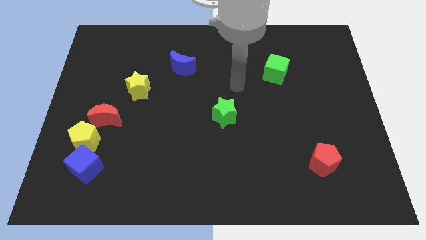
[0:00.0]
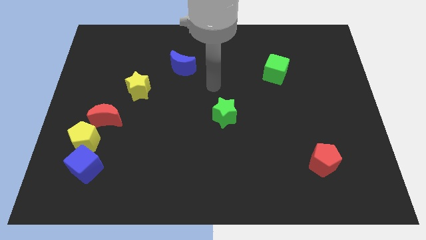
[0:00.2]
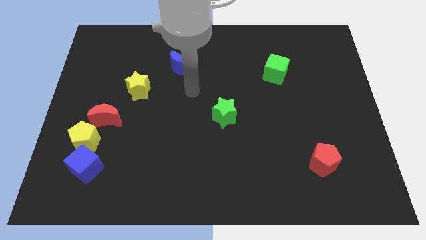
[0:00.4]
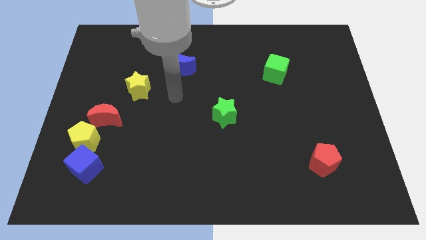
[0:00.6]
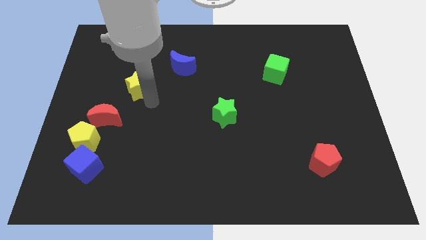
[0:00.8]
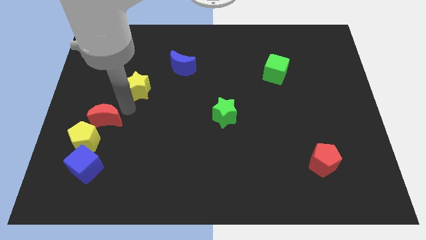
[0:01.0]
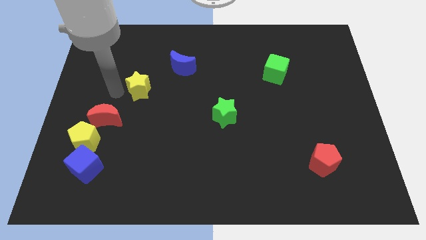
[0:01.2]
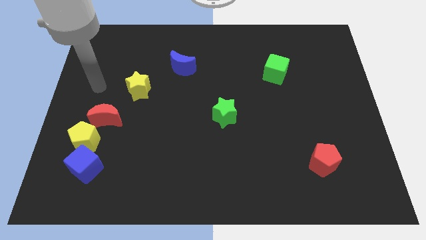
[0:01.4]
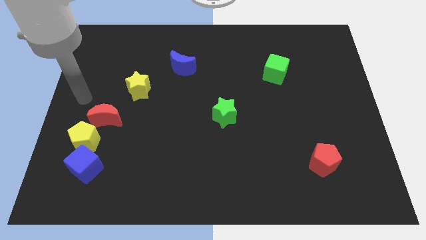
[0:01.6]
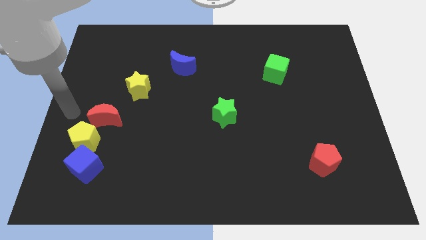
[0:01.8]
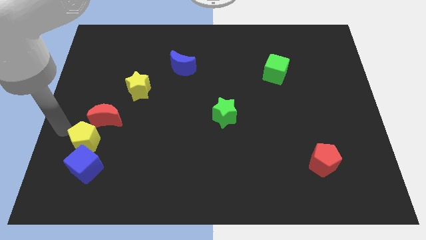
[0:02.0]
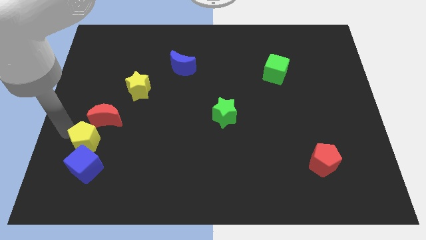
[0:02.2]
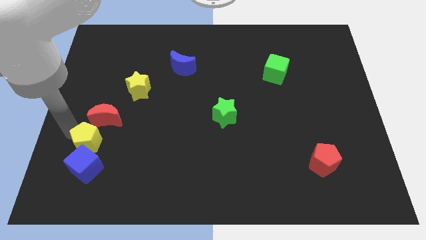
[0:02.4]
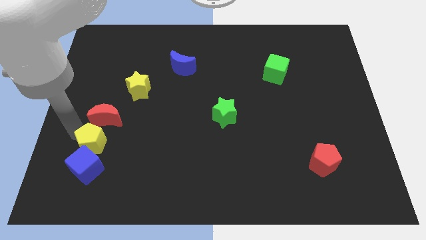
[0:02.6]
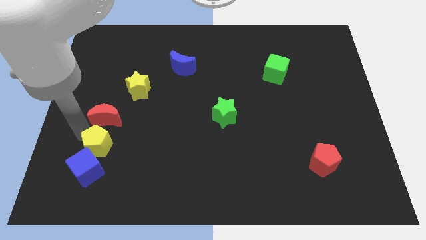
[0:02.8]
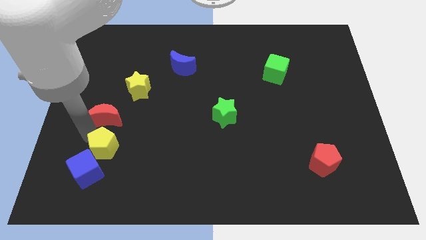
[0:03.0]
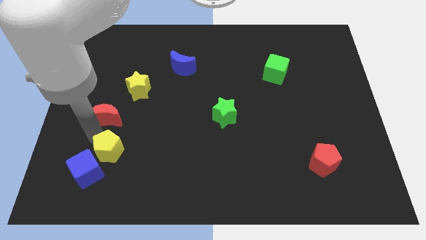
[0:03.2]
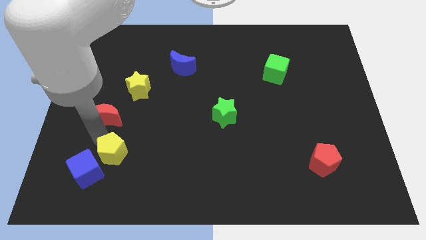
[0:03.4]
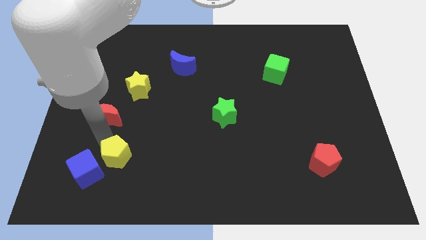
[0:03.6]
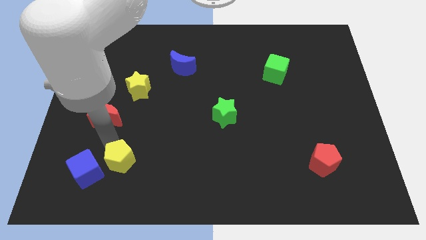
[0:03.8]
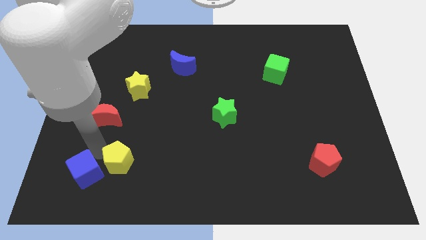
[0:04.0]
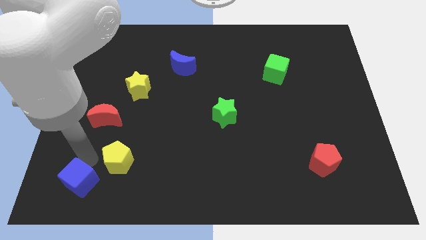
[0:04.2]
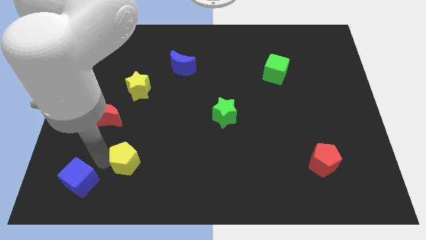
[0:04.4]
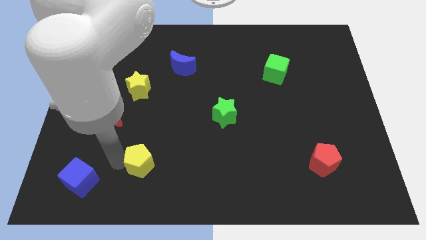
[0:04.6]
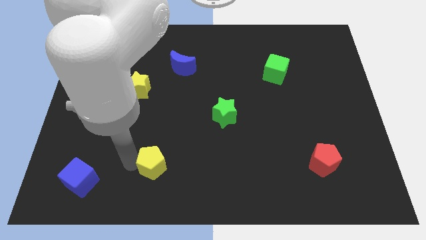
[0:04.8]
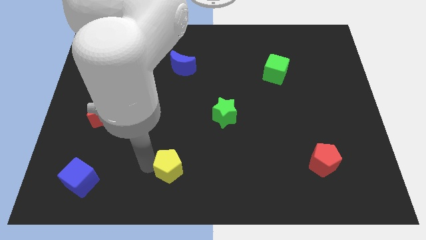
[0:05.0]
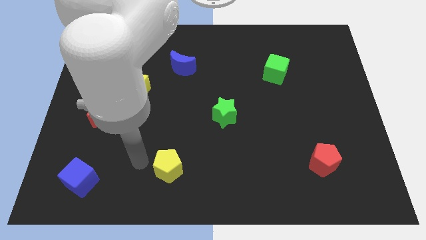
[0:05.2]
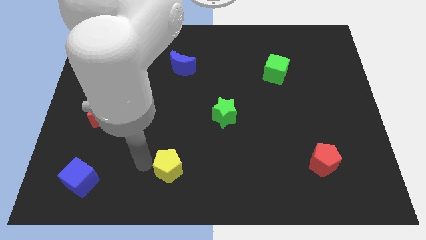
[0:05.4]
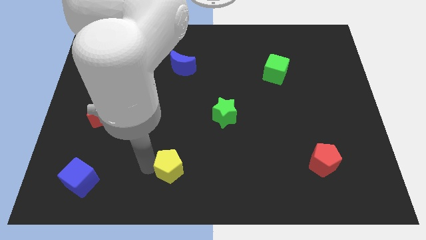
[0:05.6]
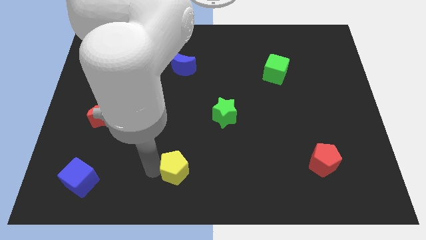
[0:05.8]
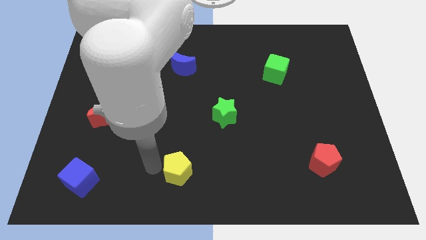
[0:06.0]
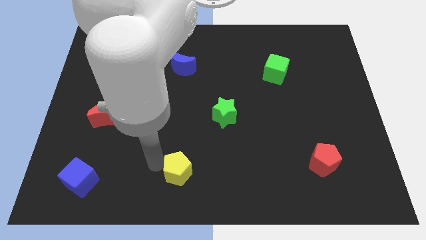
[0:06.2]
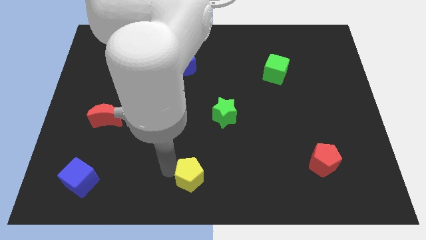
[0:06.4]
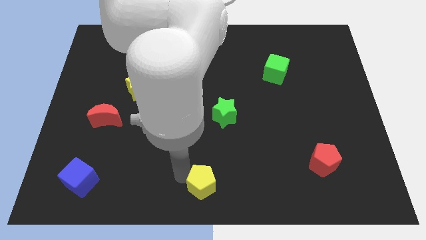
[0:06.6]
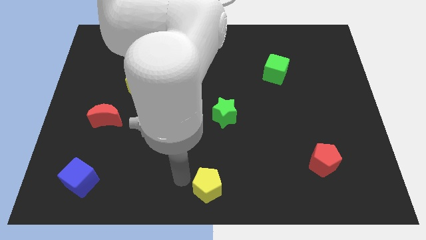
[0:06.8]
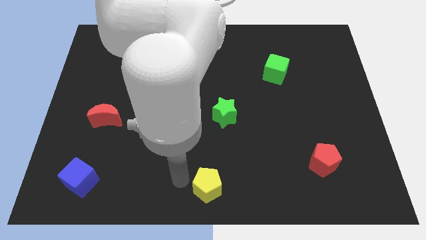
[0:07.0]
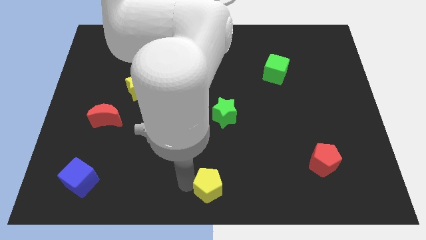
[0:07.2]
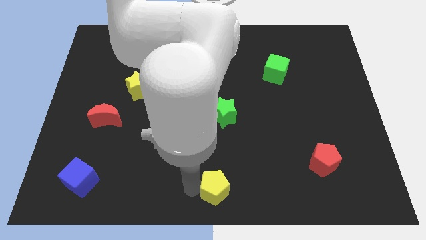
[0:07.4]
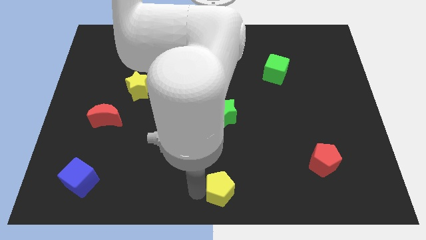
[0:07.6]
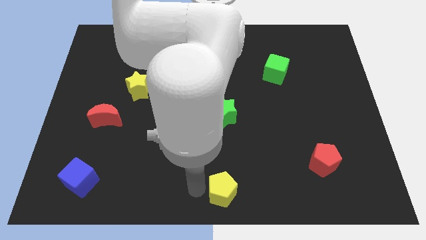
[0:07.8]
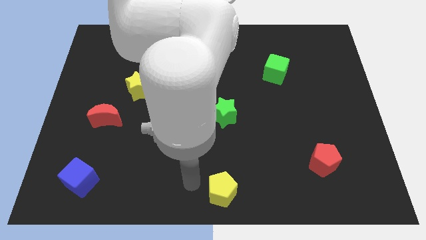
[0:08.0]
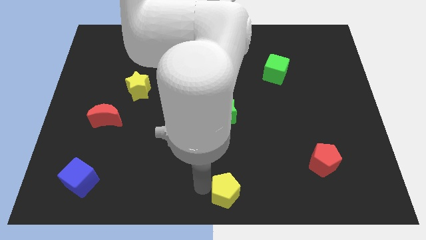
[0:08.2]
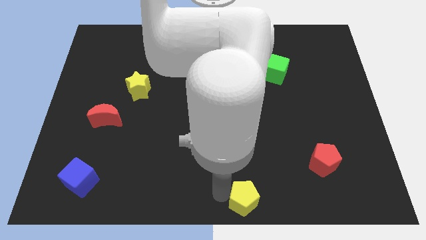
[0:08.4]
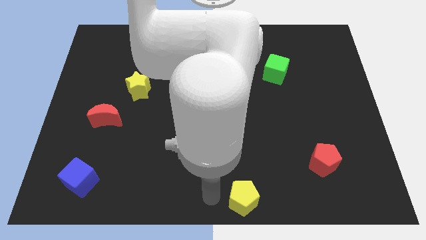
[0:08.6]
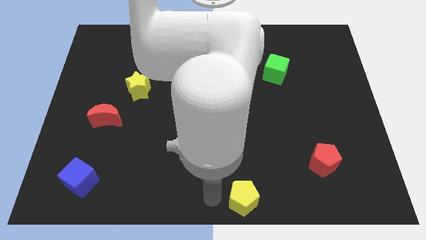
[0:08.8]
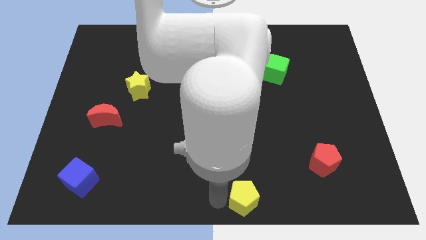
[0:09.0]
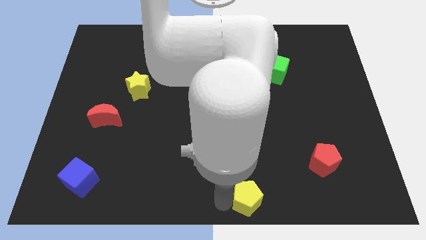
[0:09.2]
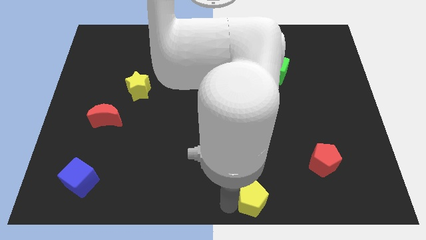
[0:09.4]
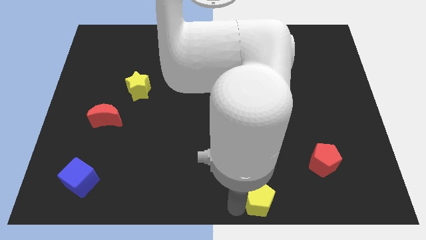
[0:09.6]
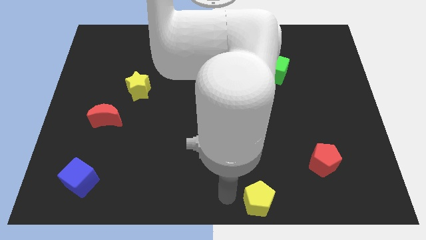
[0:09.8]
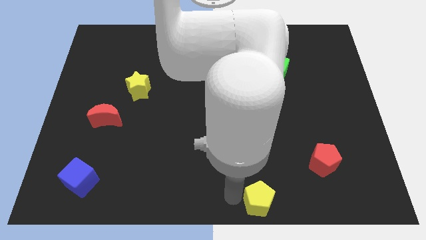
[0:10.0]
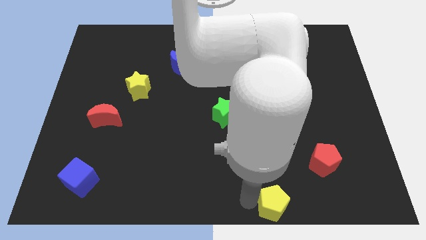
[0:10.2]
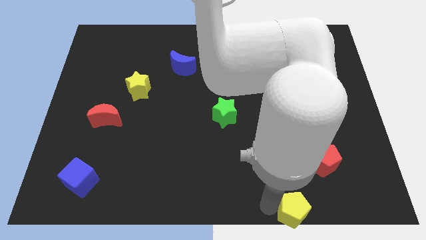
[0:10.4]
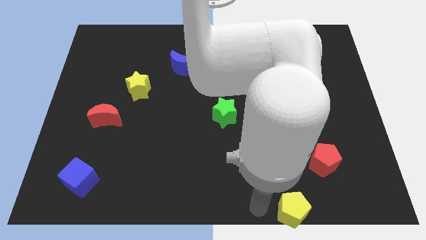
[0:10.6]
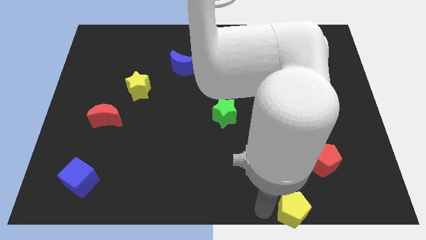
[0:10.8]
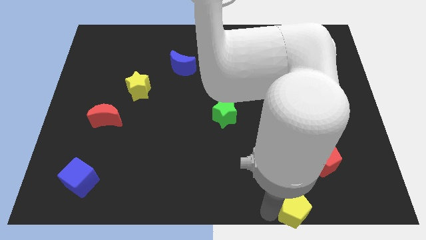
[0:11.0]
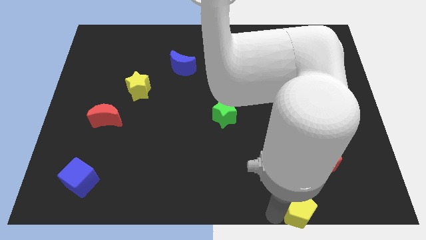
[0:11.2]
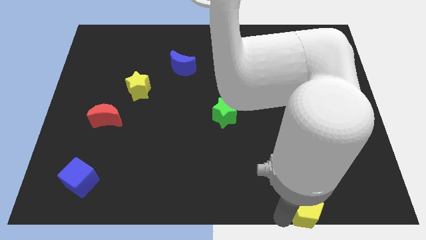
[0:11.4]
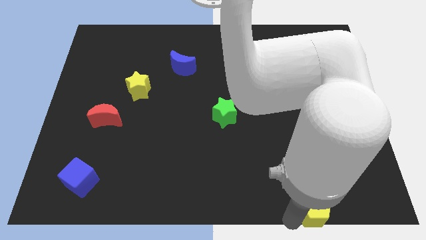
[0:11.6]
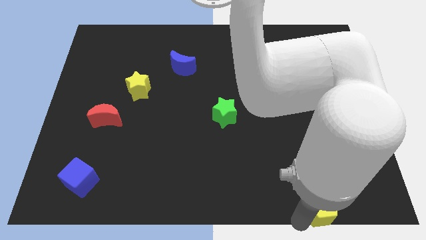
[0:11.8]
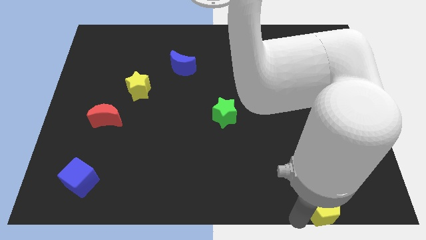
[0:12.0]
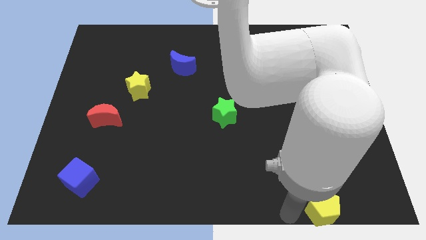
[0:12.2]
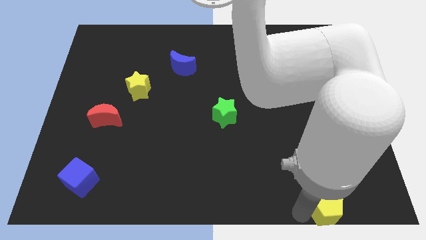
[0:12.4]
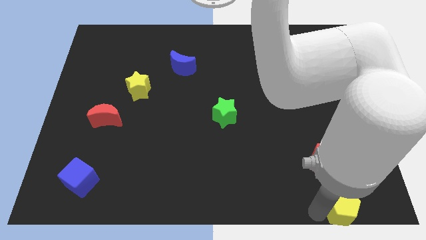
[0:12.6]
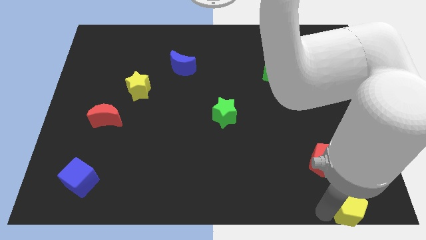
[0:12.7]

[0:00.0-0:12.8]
push the yellow pentagon to the bottom right
